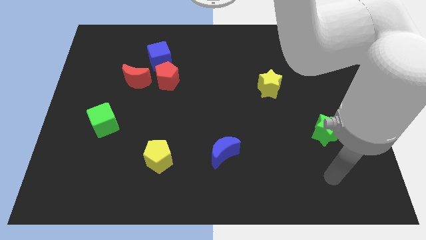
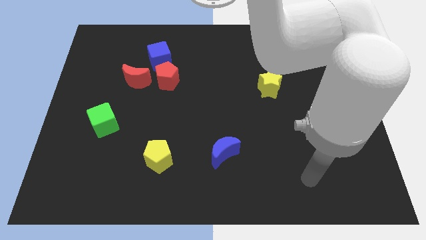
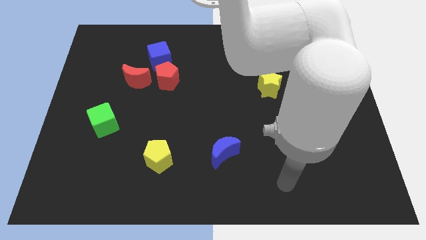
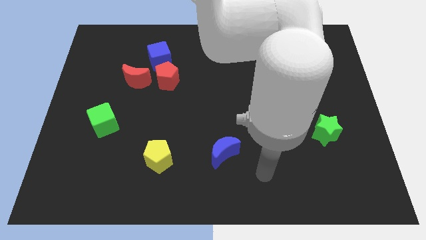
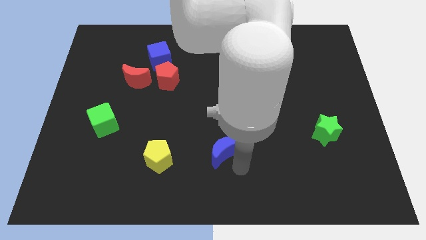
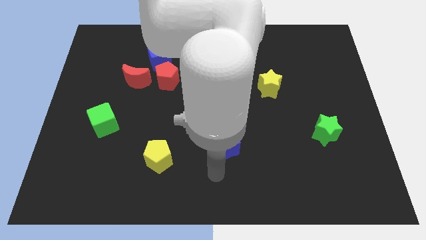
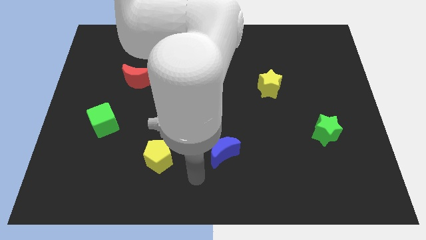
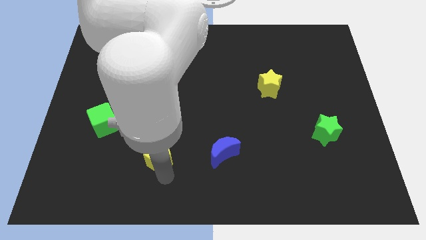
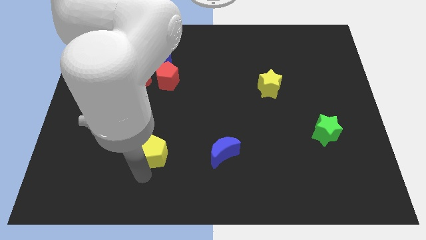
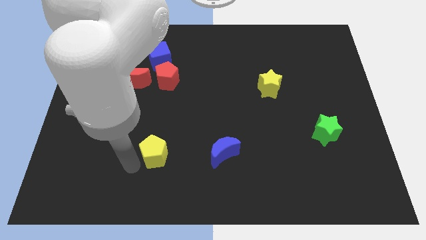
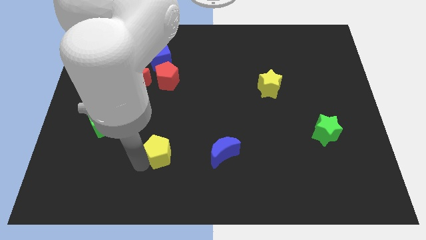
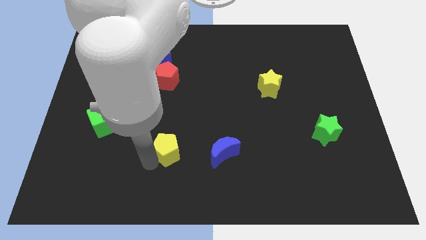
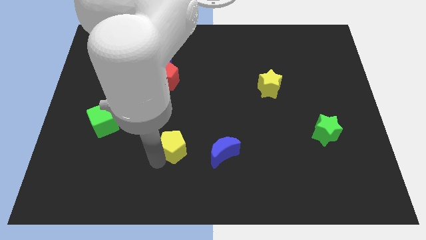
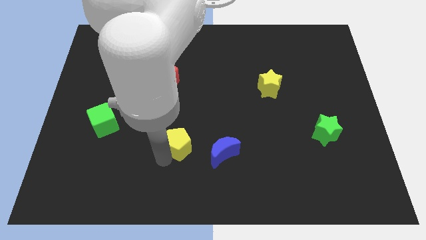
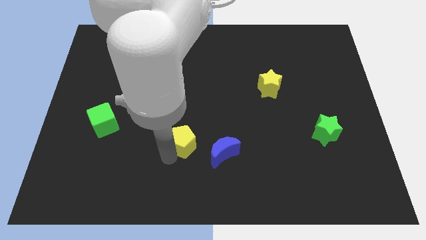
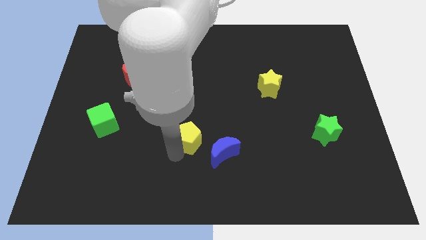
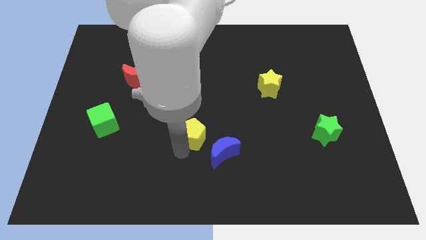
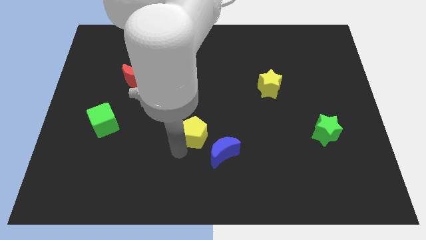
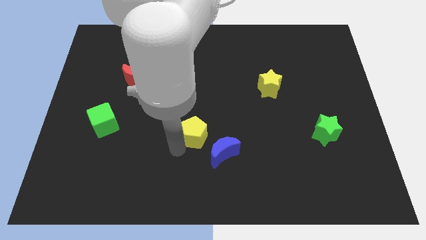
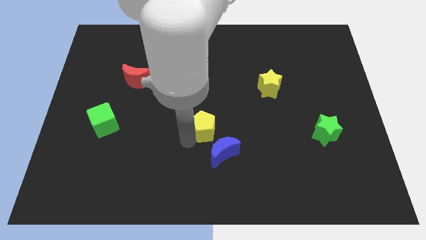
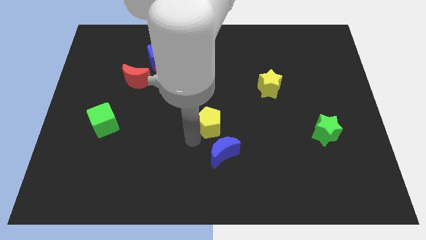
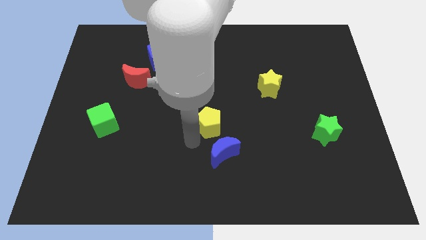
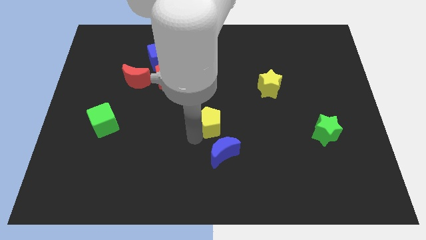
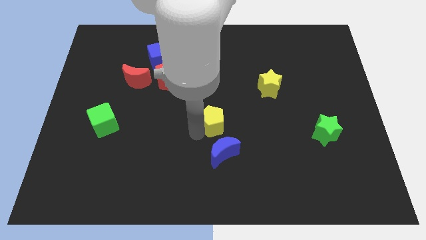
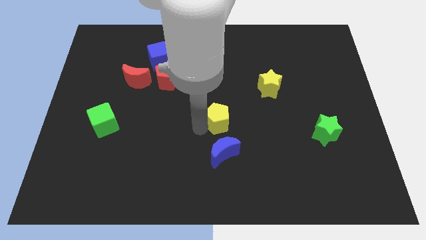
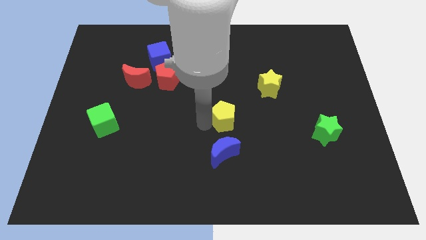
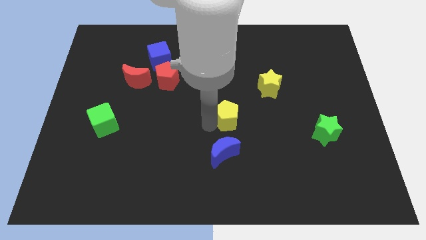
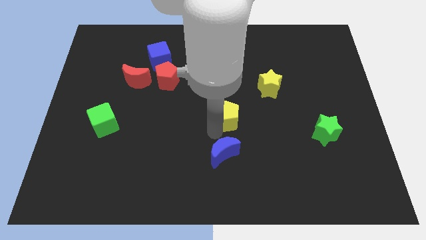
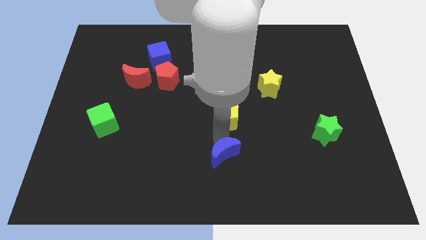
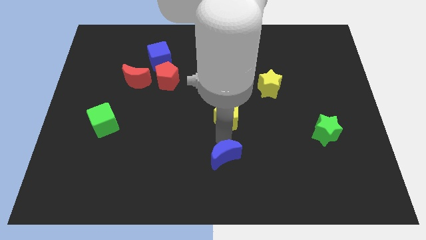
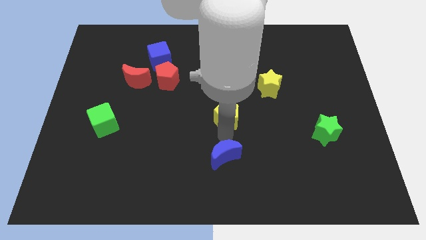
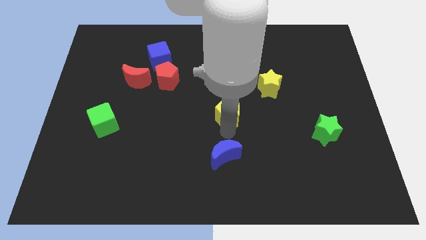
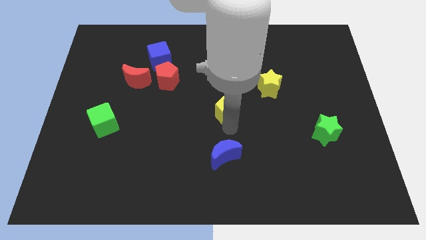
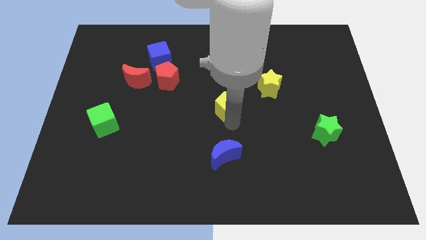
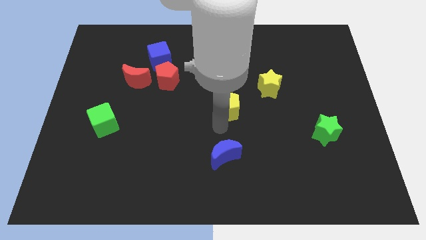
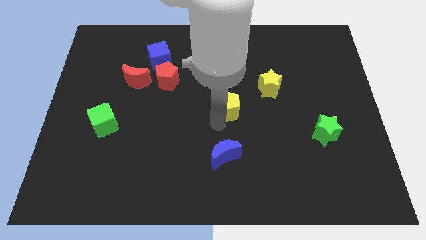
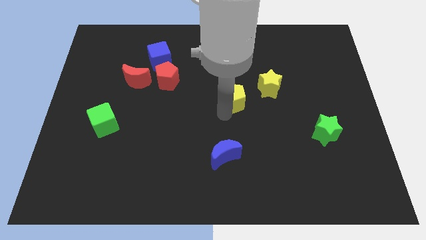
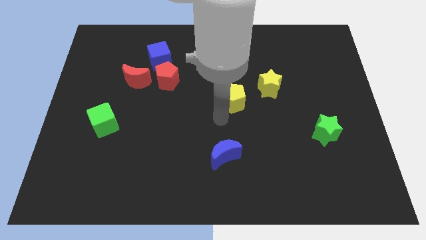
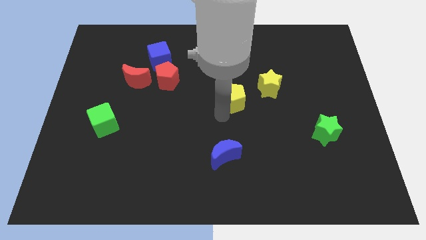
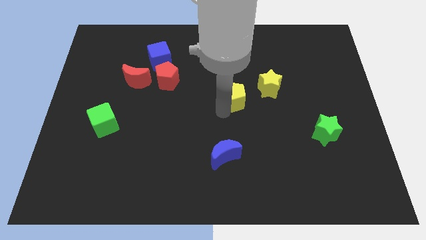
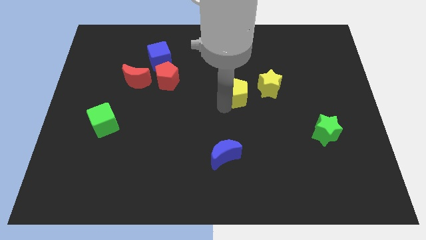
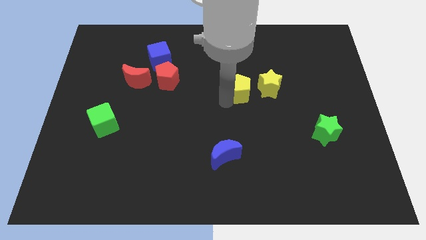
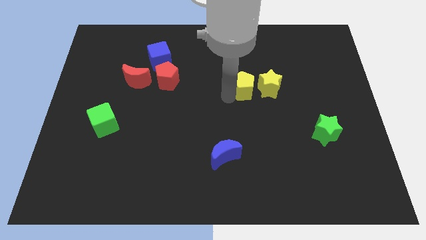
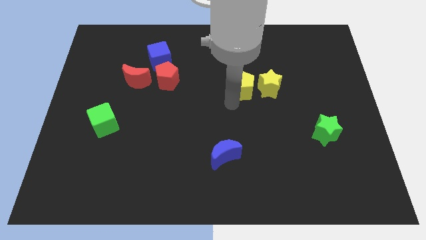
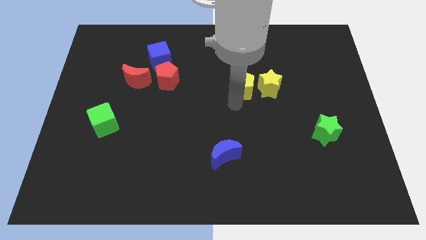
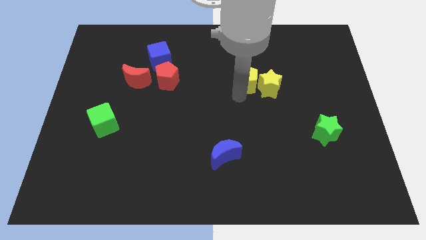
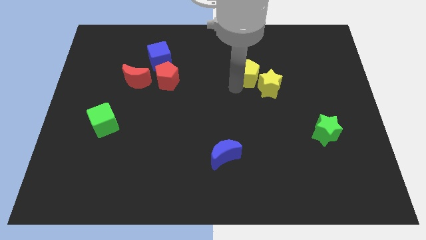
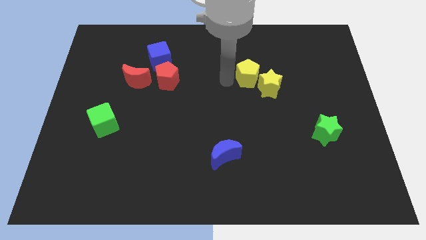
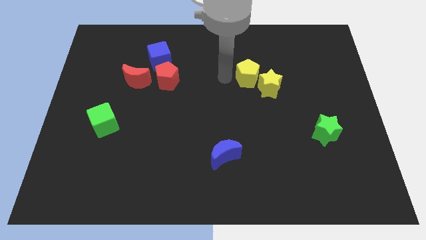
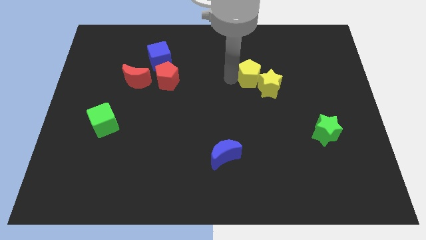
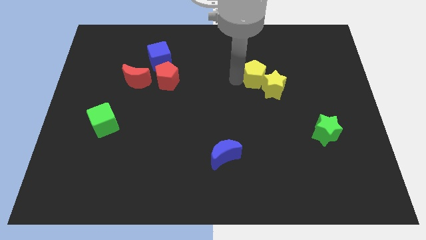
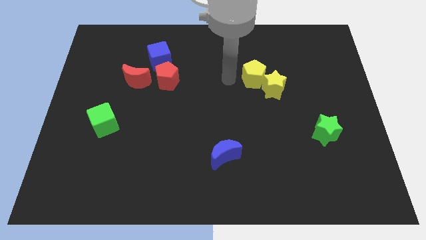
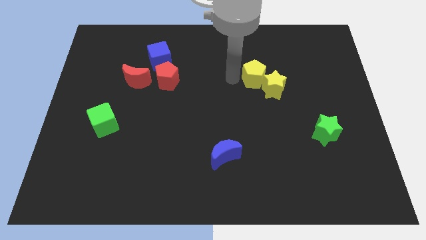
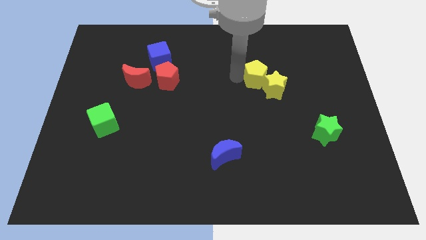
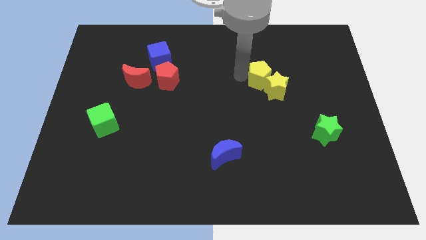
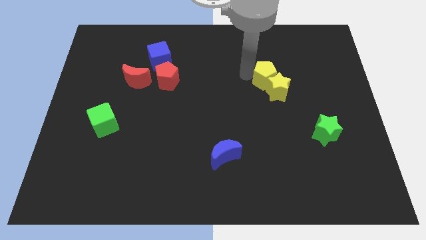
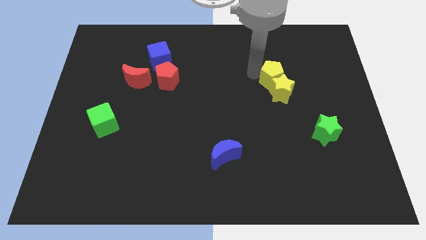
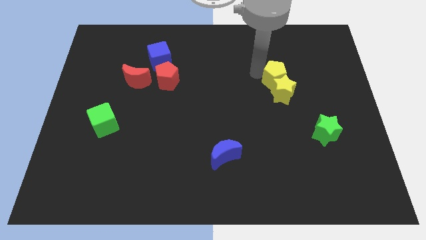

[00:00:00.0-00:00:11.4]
move the yellow pentagon to the top right side of the yellow star

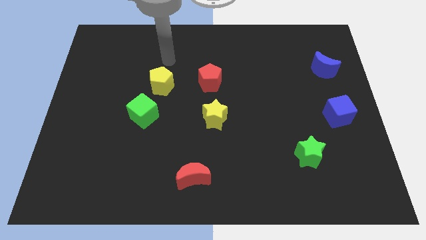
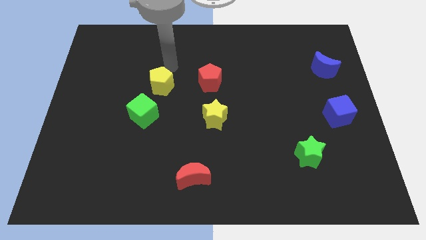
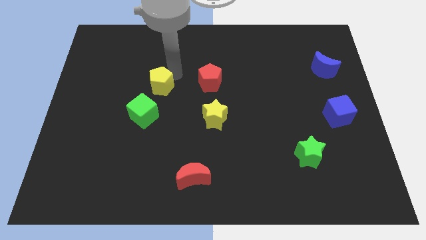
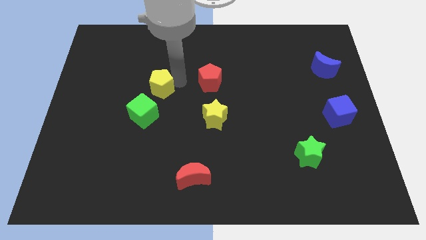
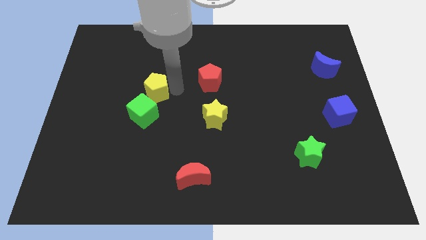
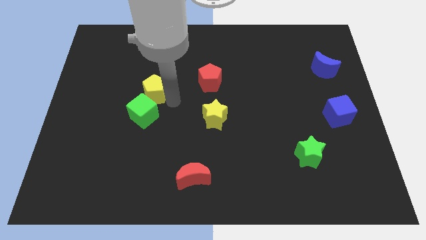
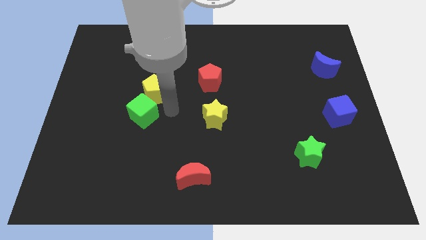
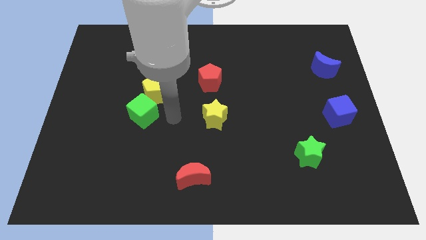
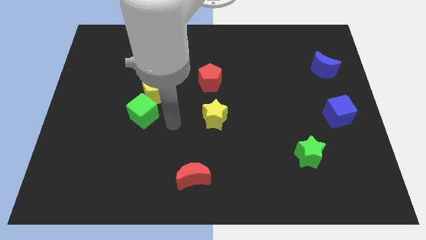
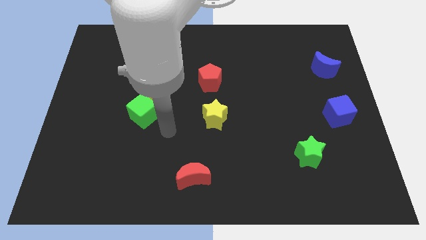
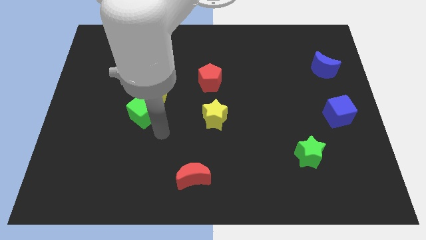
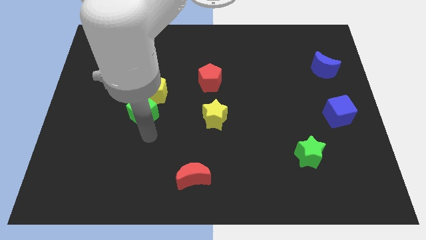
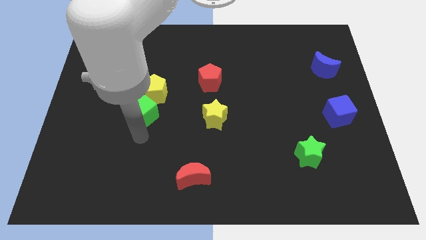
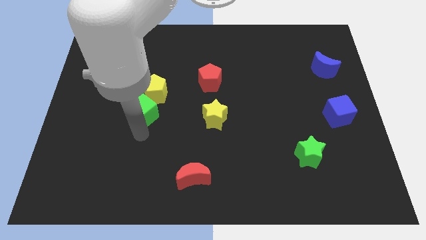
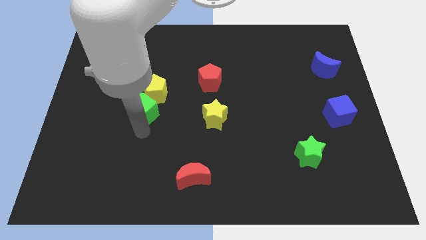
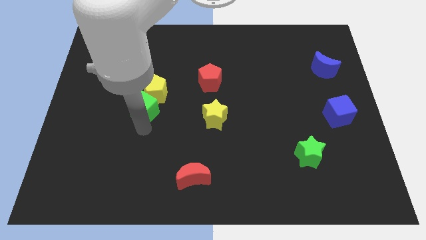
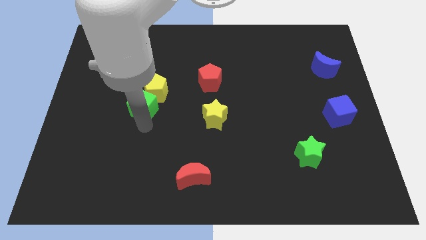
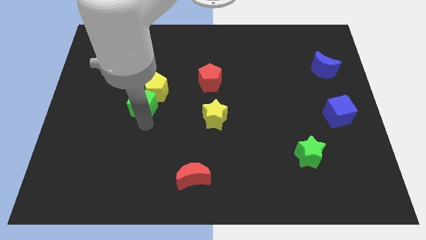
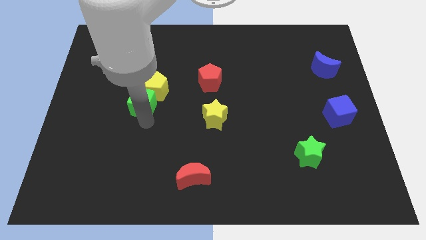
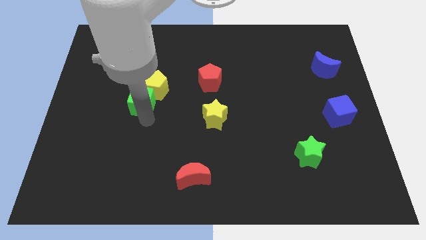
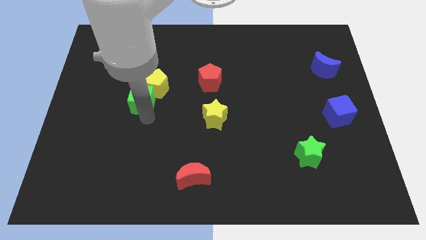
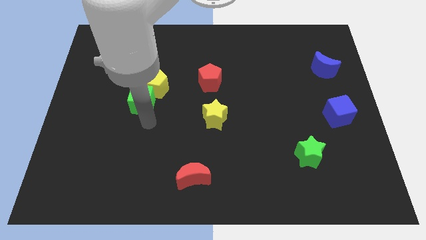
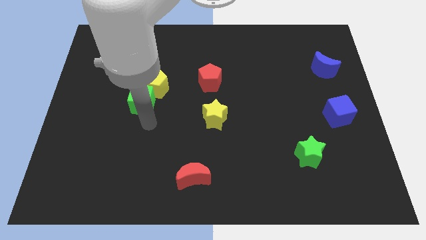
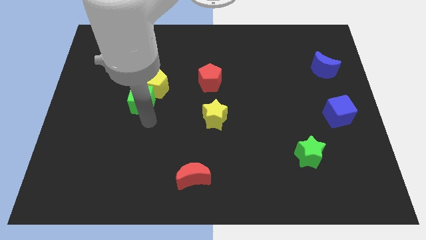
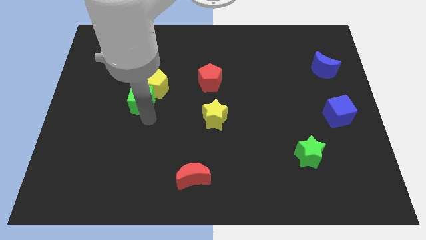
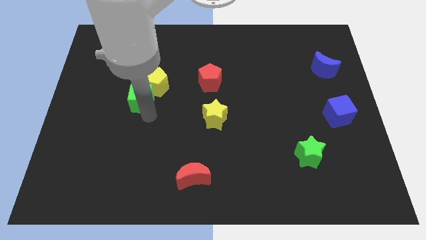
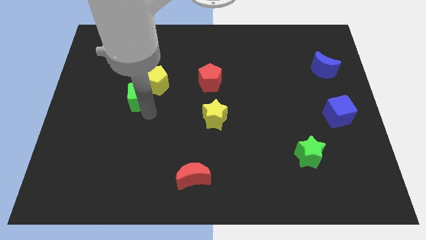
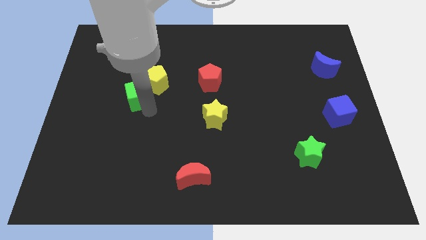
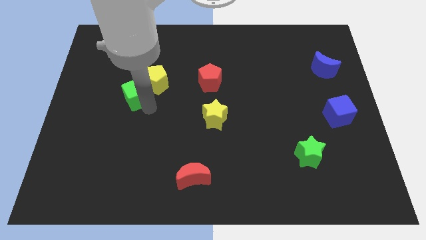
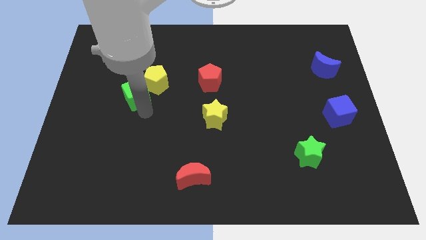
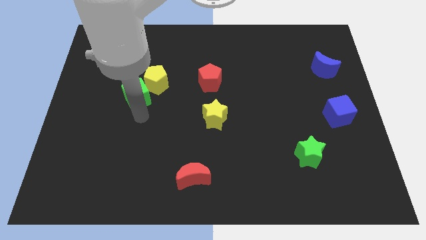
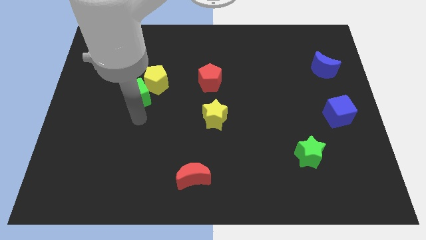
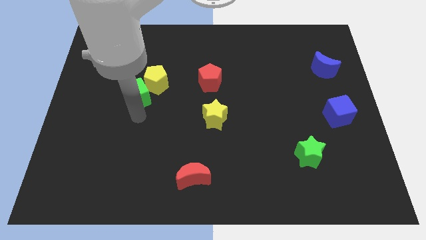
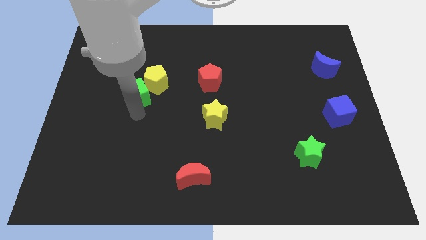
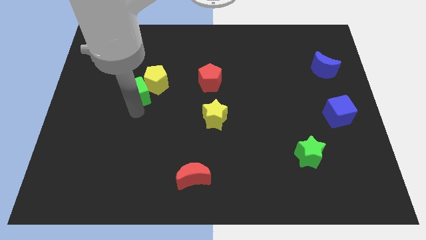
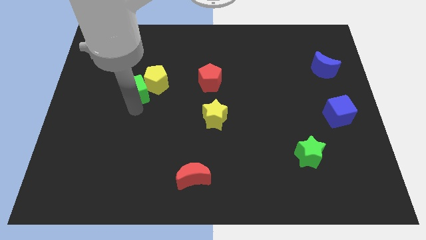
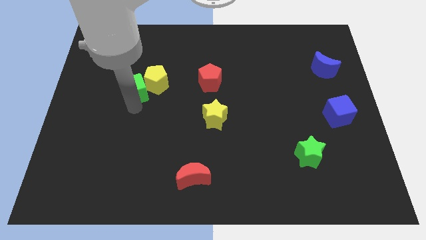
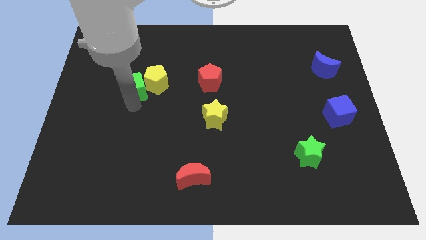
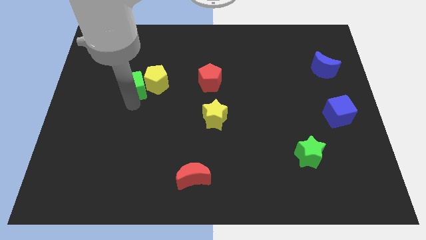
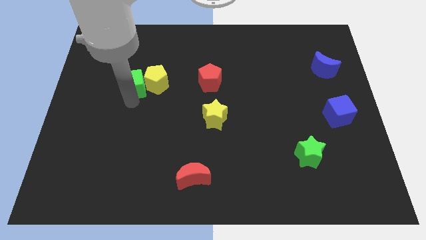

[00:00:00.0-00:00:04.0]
put the green cube to the top left of the yellow pentagon
